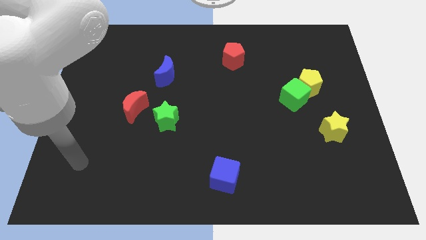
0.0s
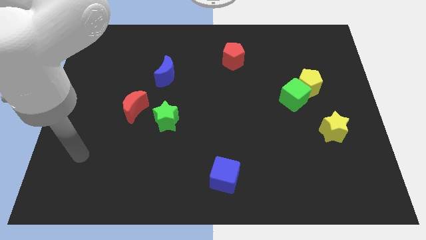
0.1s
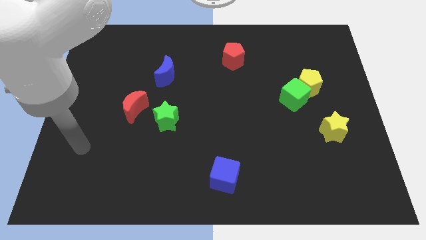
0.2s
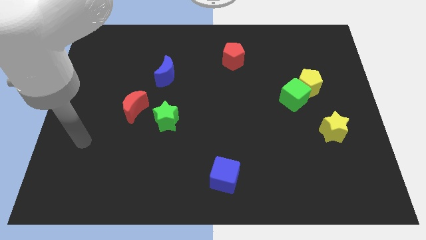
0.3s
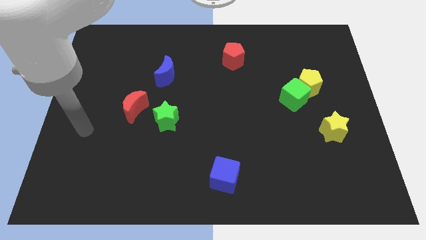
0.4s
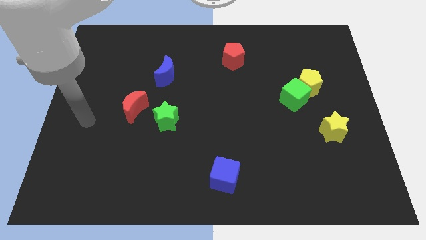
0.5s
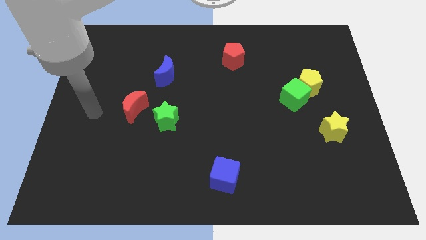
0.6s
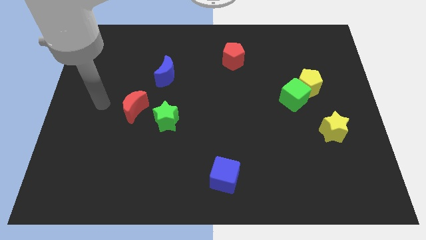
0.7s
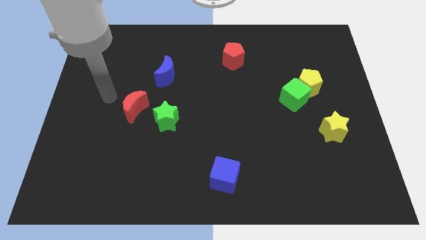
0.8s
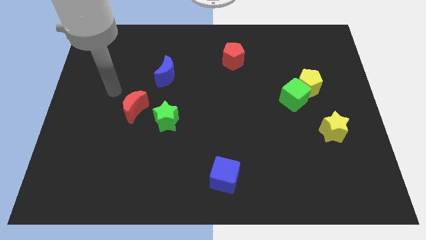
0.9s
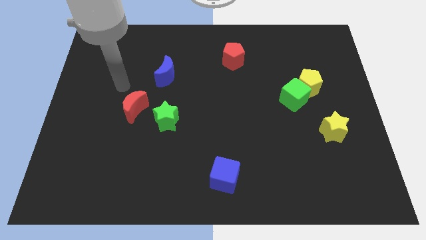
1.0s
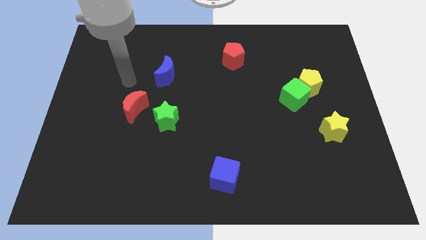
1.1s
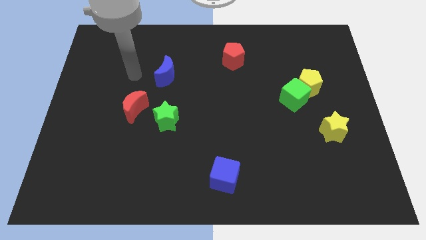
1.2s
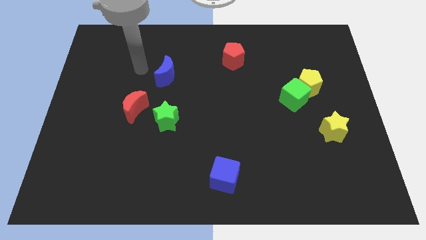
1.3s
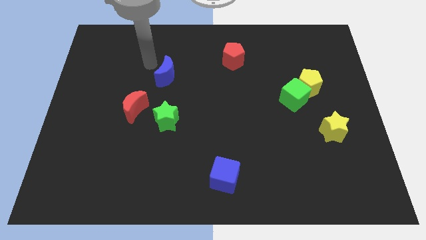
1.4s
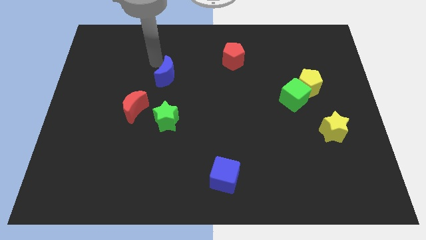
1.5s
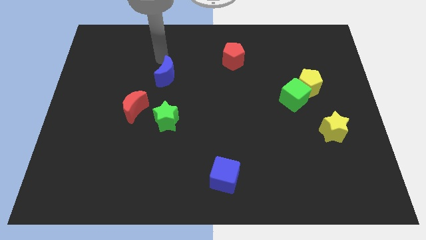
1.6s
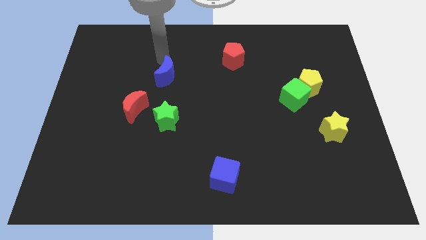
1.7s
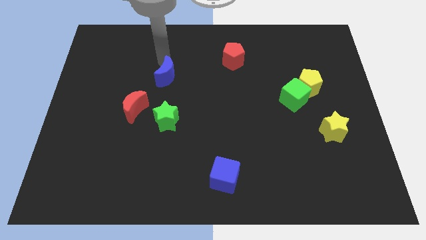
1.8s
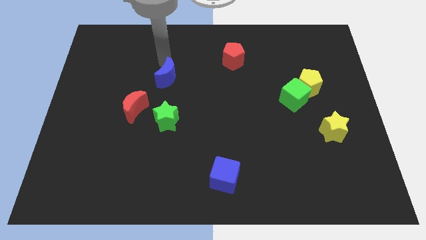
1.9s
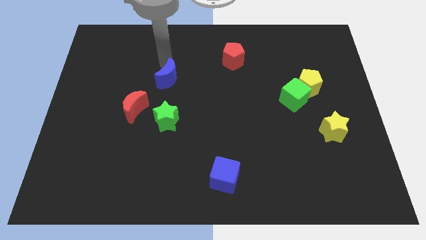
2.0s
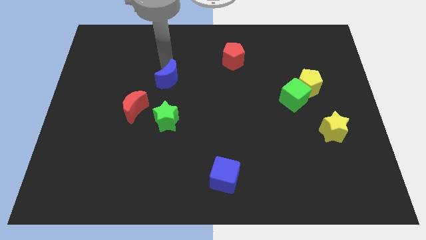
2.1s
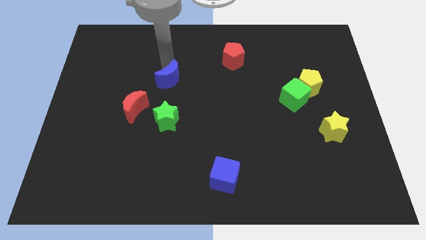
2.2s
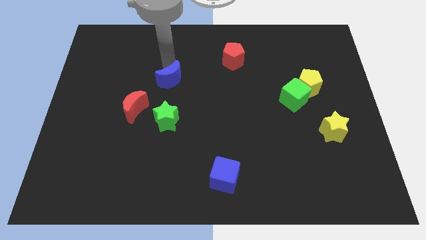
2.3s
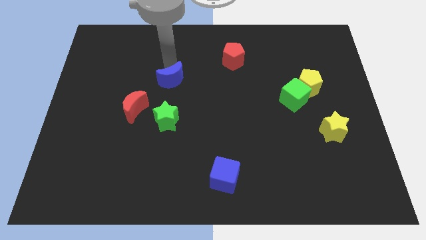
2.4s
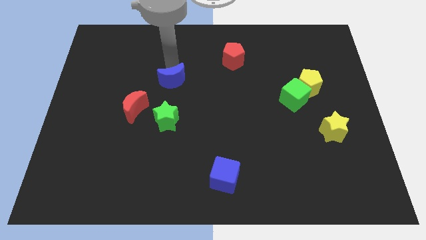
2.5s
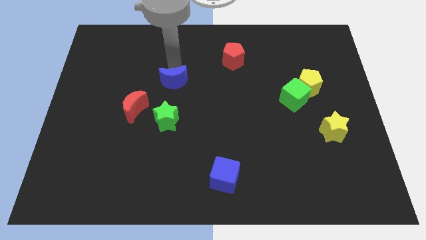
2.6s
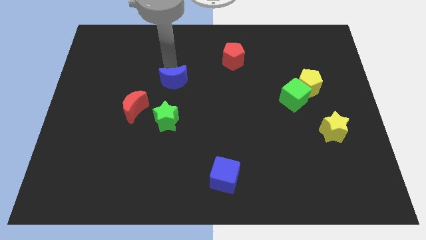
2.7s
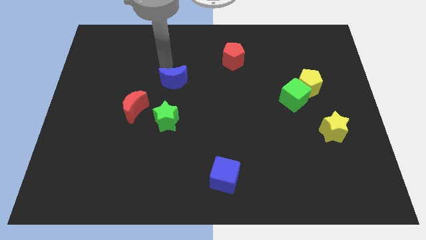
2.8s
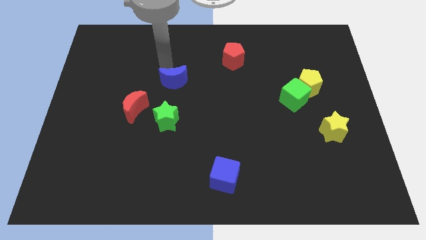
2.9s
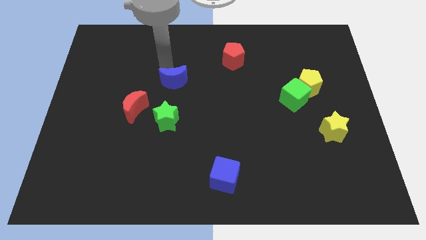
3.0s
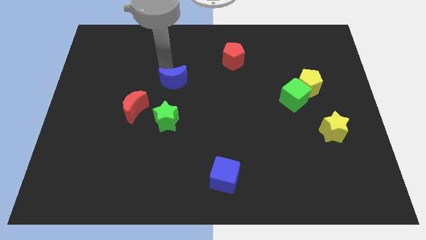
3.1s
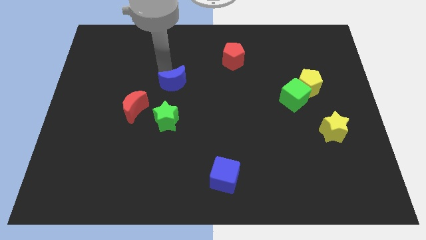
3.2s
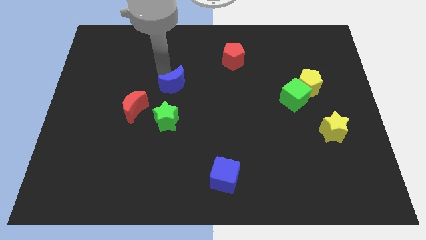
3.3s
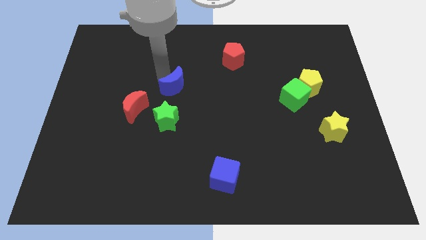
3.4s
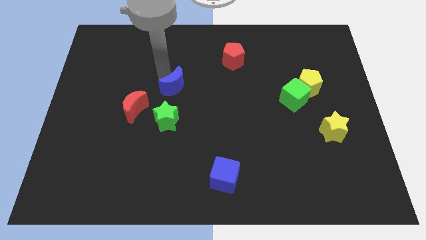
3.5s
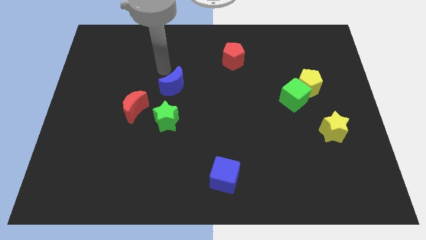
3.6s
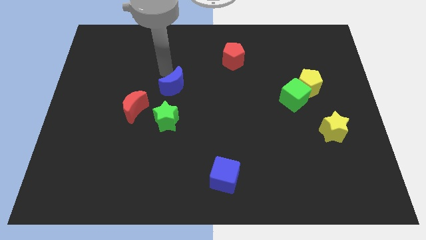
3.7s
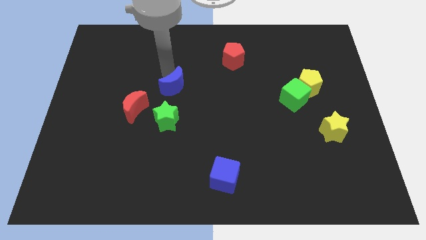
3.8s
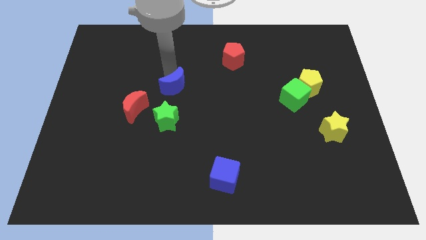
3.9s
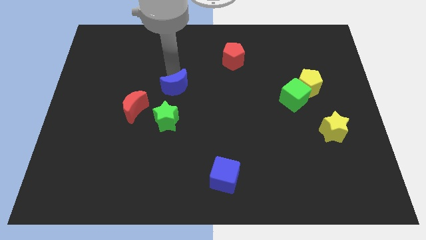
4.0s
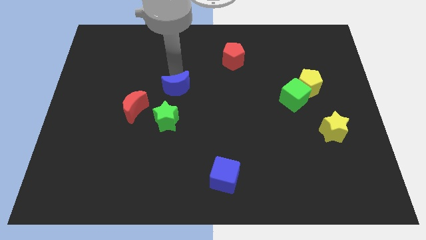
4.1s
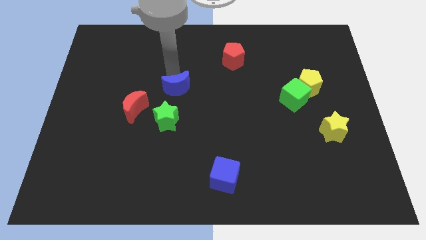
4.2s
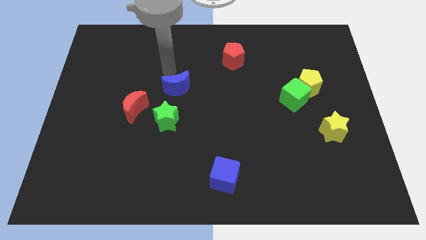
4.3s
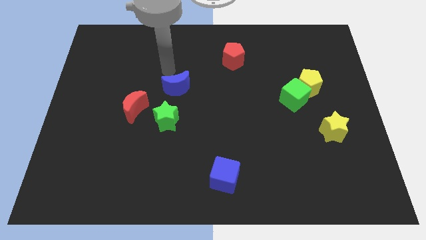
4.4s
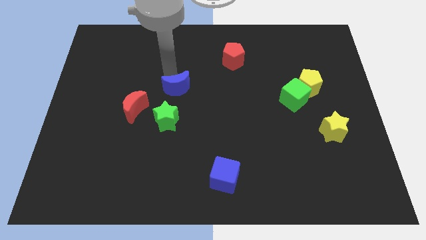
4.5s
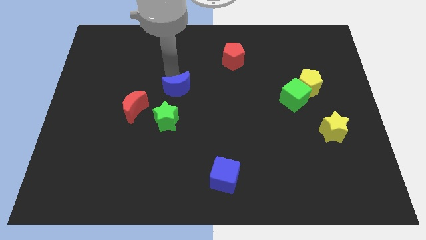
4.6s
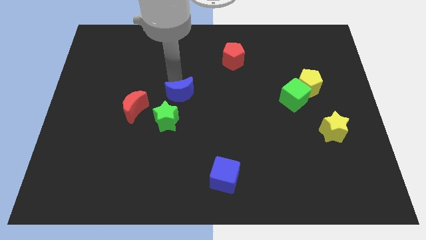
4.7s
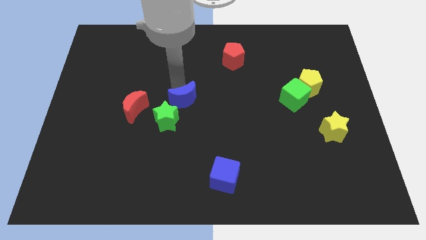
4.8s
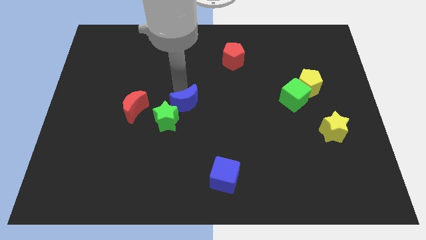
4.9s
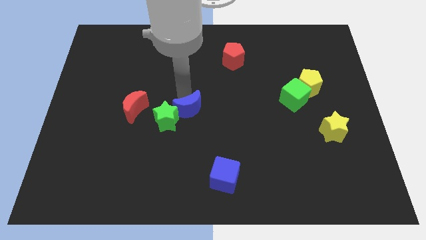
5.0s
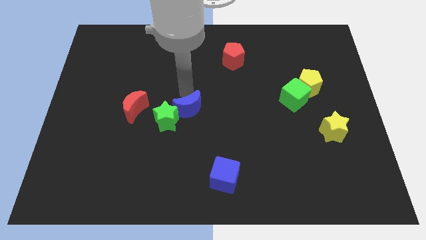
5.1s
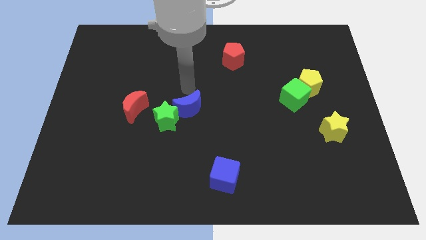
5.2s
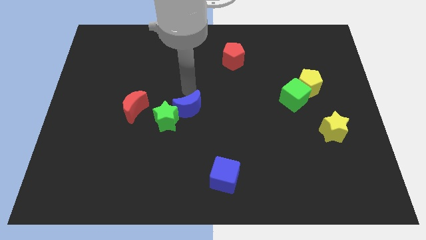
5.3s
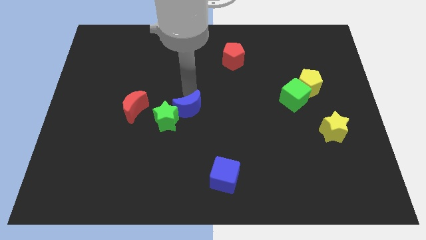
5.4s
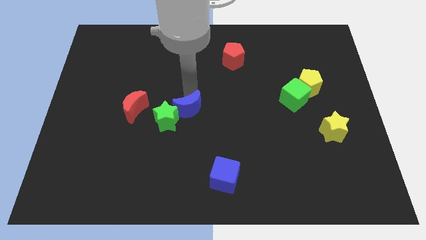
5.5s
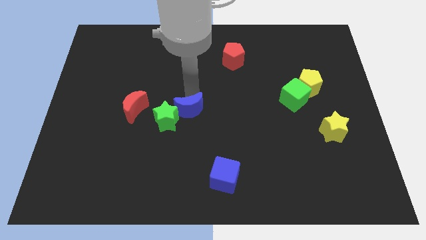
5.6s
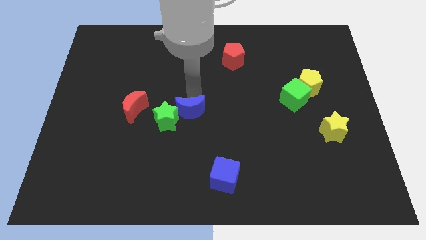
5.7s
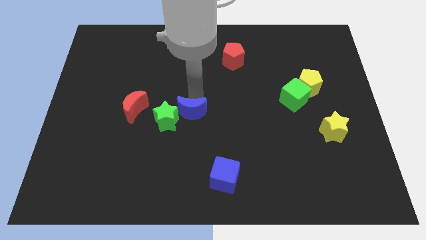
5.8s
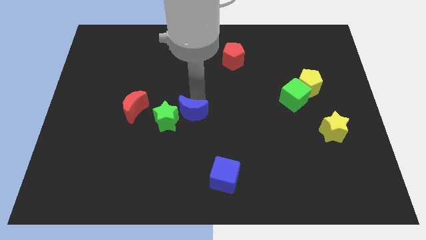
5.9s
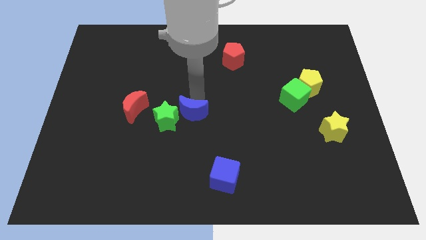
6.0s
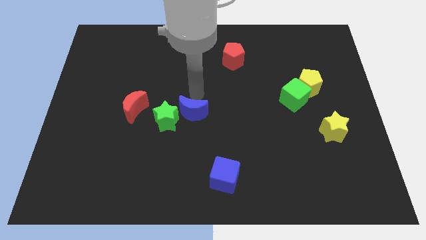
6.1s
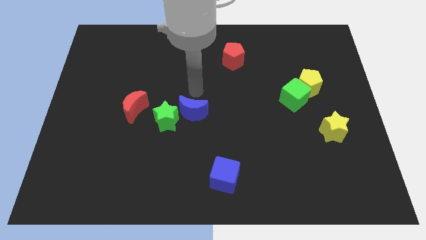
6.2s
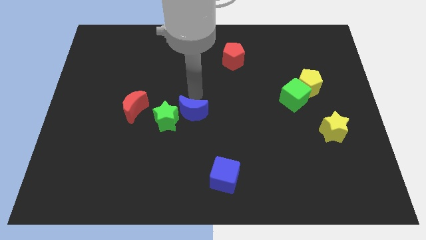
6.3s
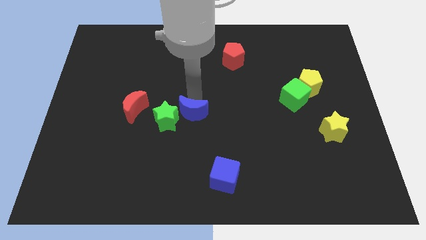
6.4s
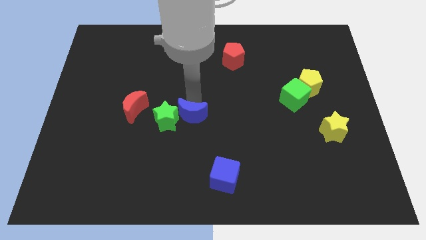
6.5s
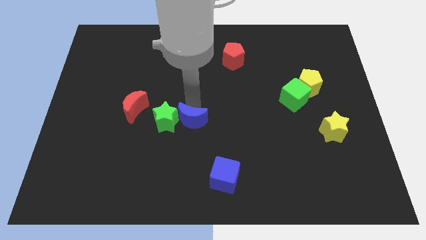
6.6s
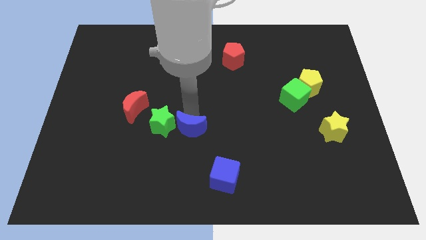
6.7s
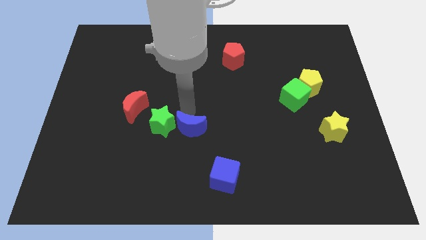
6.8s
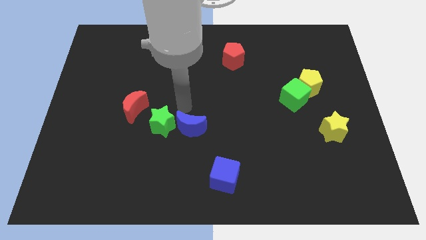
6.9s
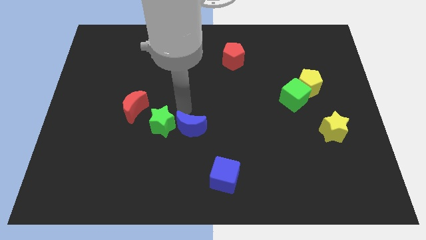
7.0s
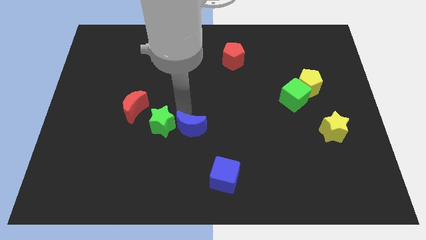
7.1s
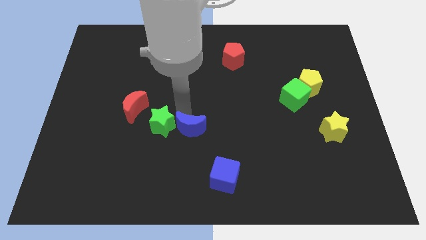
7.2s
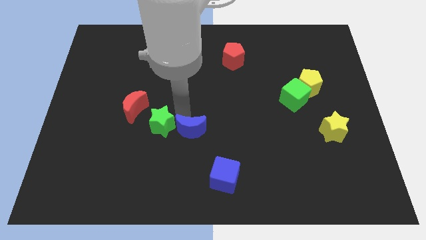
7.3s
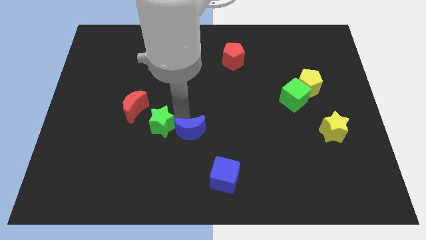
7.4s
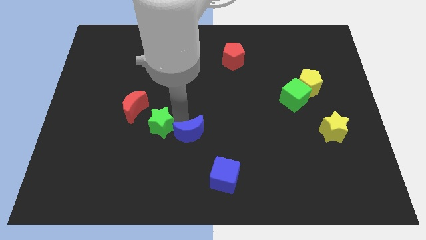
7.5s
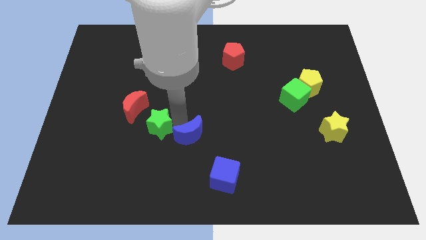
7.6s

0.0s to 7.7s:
push the blue moon to the top left side of the blue cube
